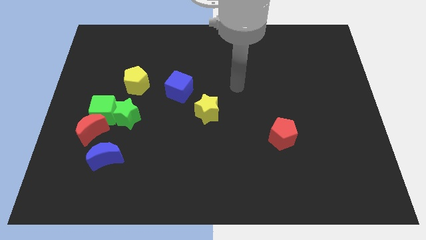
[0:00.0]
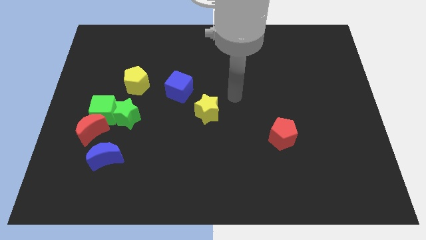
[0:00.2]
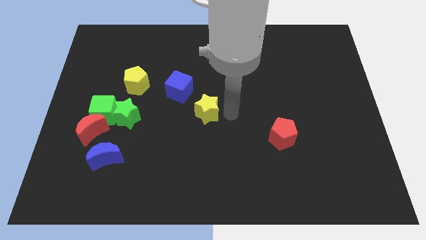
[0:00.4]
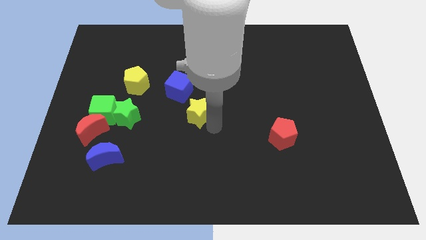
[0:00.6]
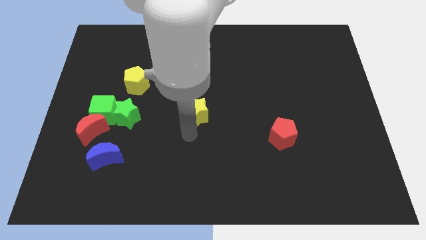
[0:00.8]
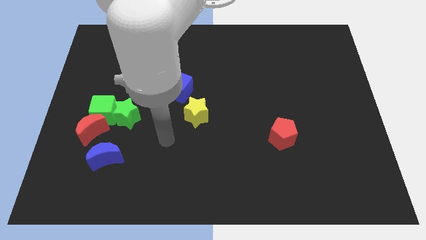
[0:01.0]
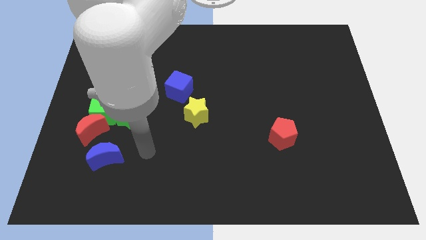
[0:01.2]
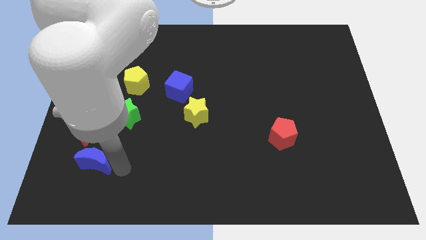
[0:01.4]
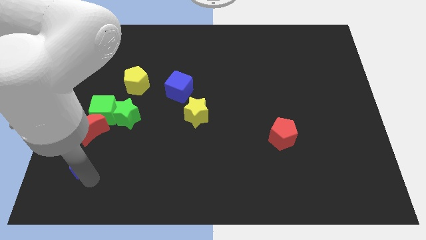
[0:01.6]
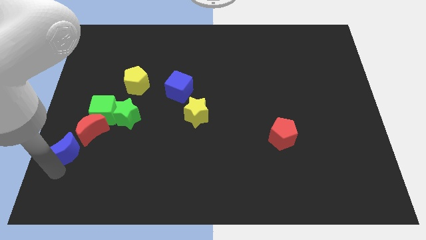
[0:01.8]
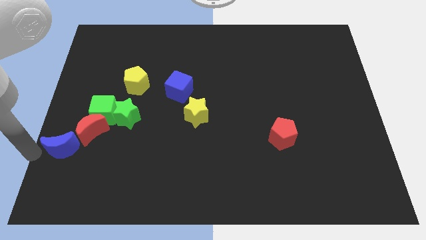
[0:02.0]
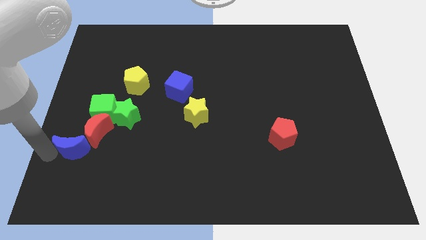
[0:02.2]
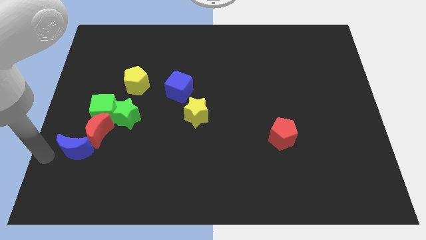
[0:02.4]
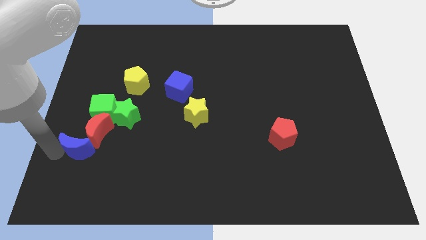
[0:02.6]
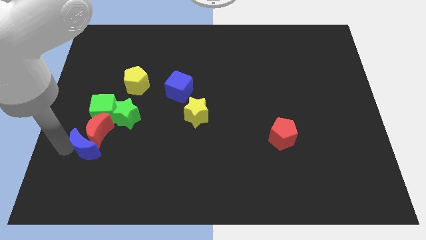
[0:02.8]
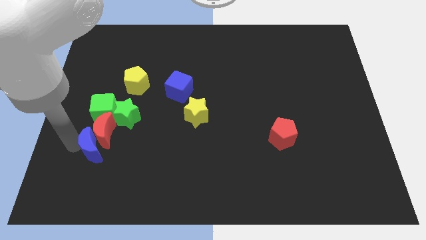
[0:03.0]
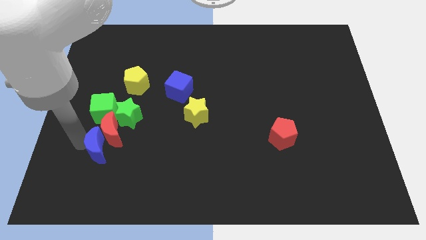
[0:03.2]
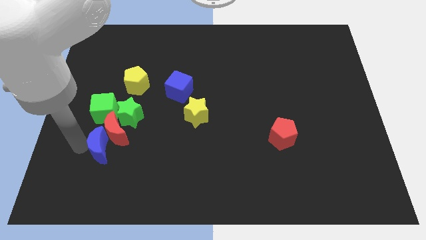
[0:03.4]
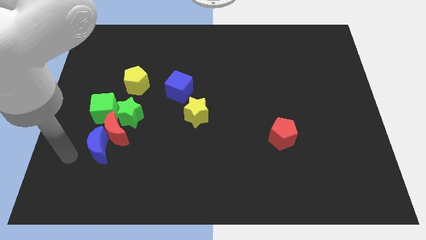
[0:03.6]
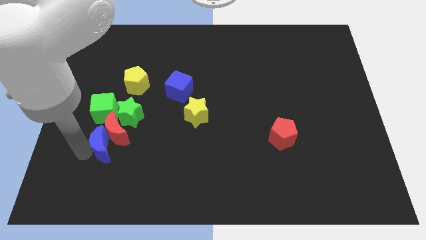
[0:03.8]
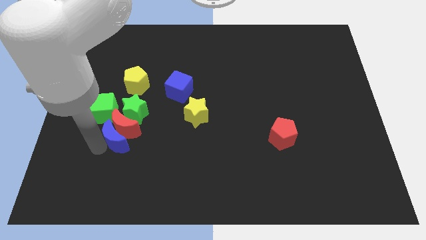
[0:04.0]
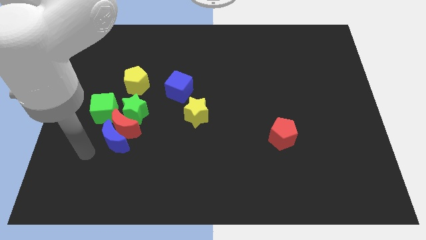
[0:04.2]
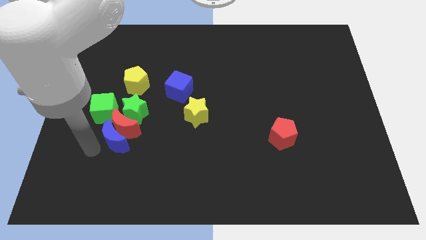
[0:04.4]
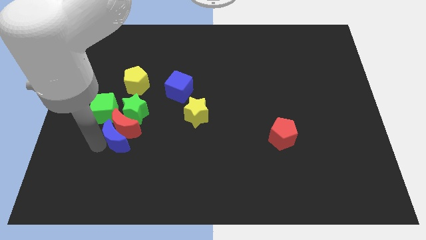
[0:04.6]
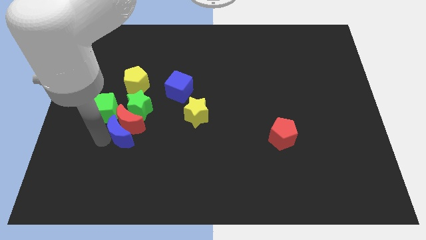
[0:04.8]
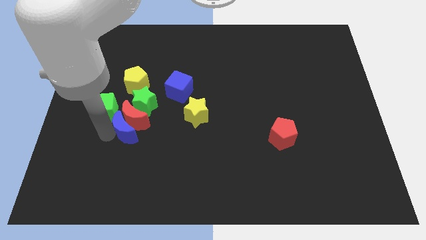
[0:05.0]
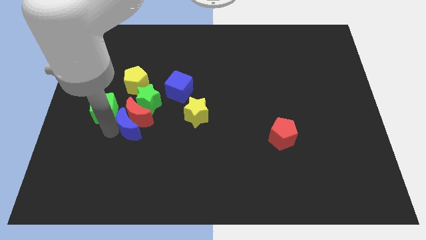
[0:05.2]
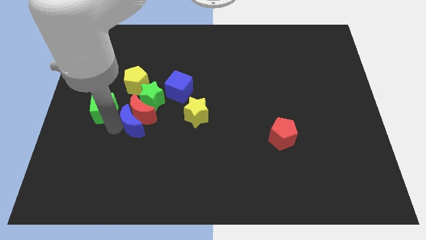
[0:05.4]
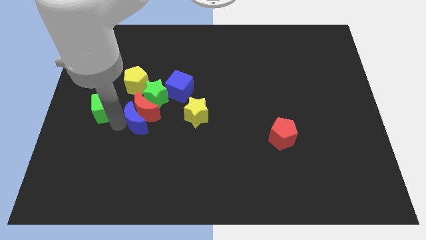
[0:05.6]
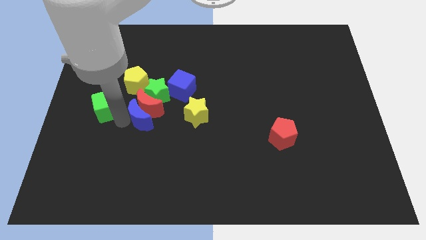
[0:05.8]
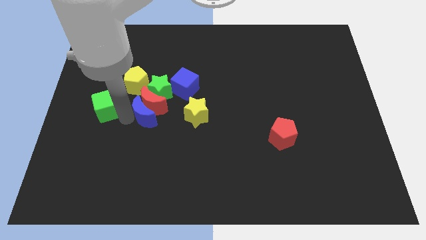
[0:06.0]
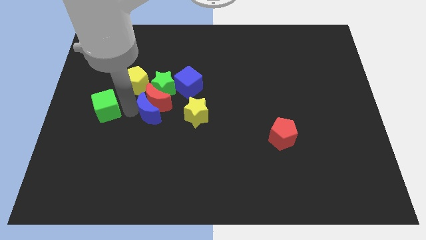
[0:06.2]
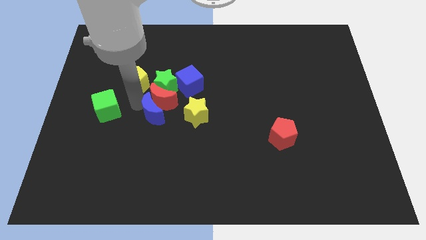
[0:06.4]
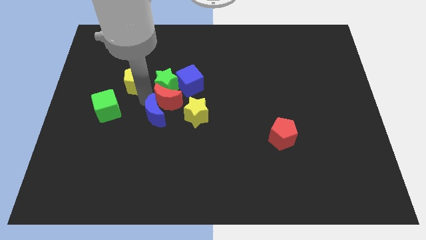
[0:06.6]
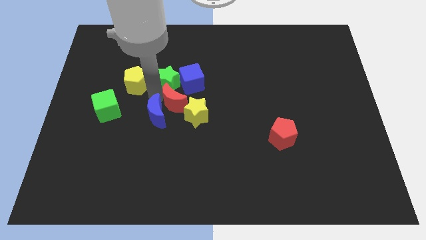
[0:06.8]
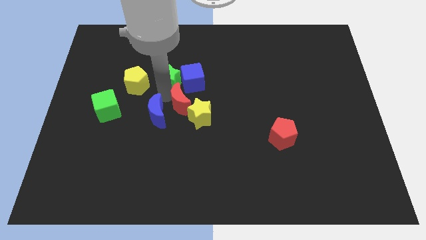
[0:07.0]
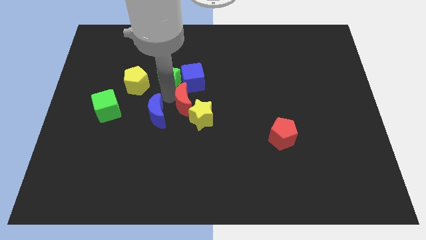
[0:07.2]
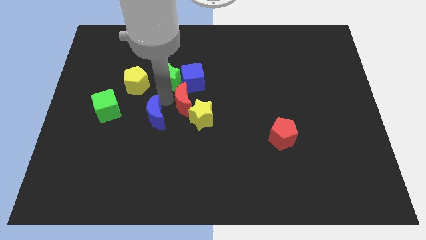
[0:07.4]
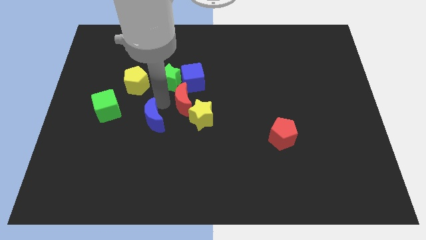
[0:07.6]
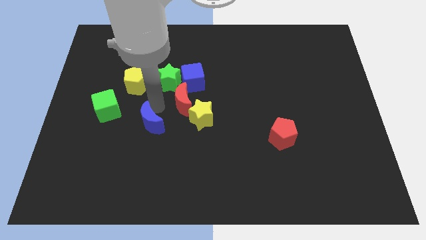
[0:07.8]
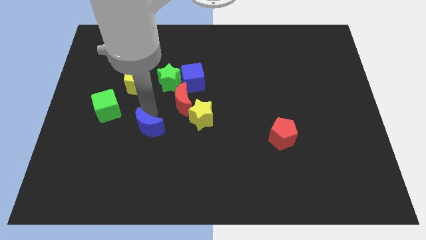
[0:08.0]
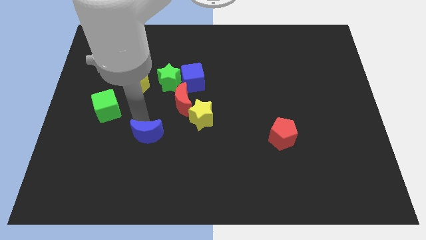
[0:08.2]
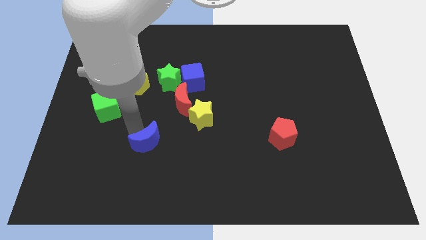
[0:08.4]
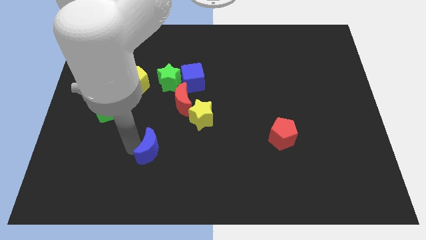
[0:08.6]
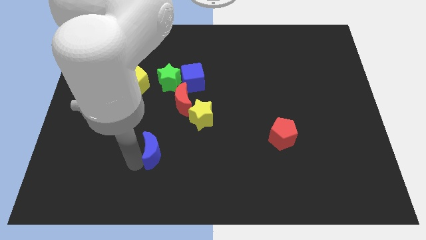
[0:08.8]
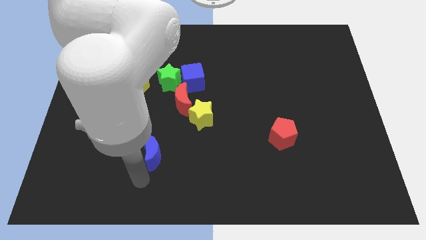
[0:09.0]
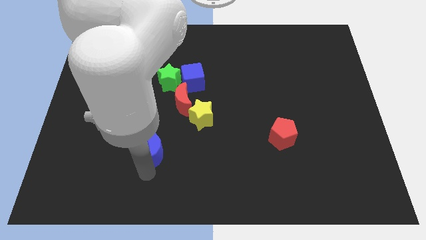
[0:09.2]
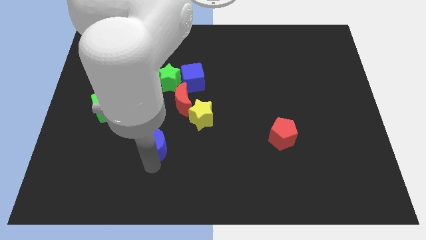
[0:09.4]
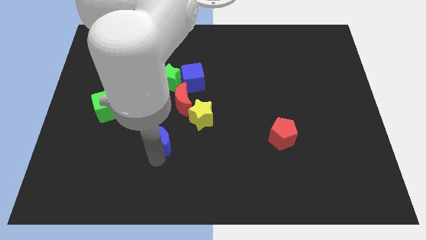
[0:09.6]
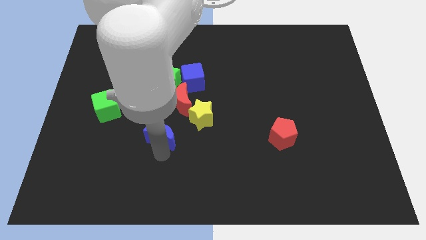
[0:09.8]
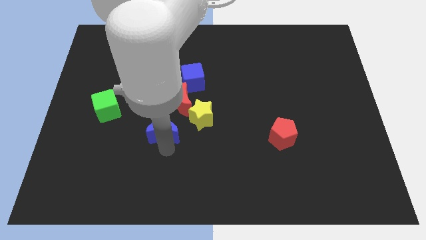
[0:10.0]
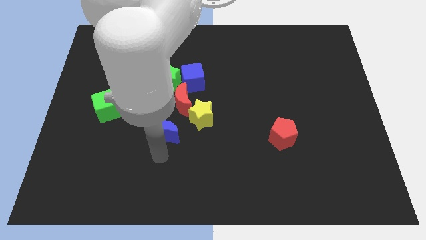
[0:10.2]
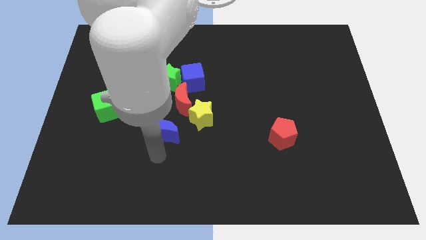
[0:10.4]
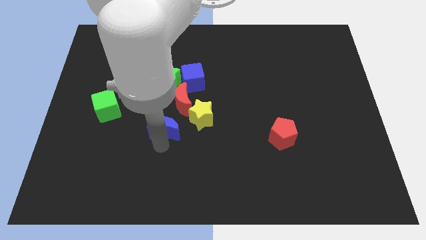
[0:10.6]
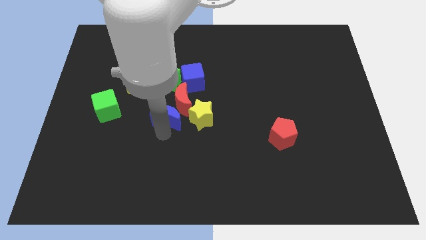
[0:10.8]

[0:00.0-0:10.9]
put the blue moon to the center of the board

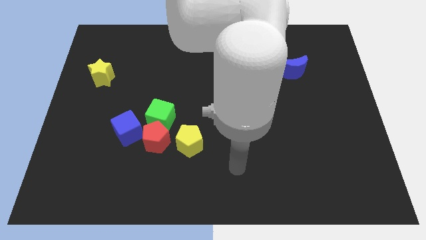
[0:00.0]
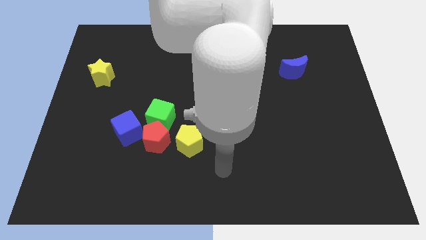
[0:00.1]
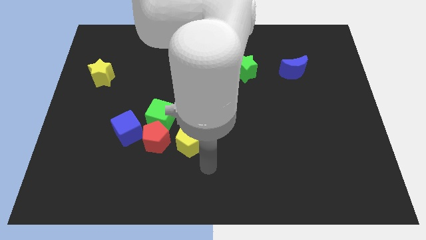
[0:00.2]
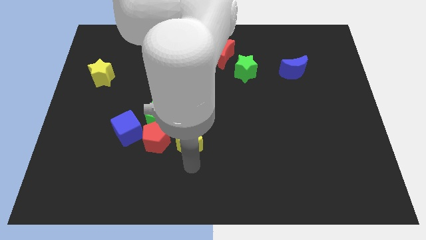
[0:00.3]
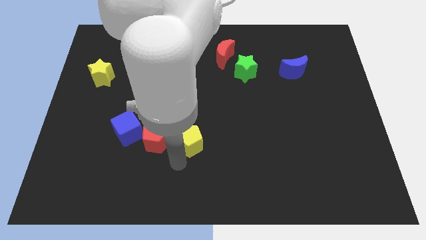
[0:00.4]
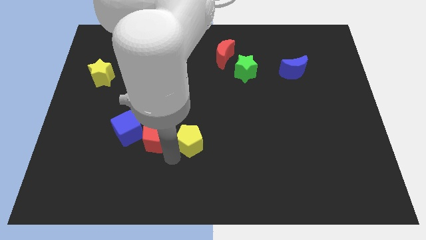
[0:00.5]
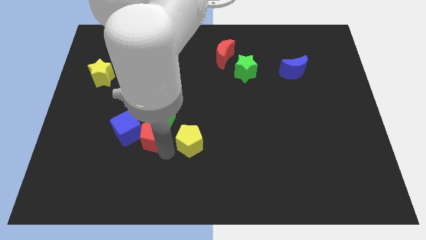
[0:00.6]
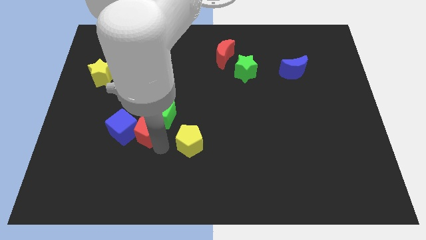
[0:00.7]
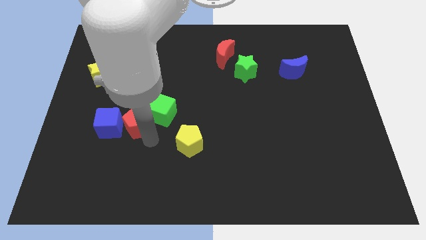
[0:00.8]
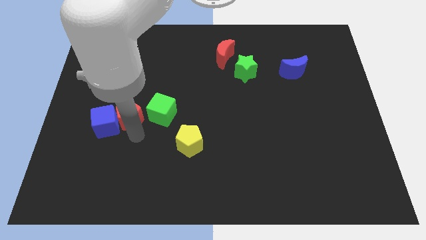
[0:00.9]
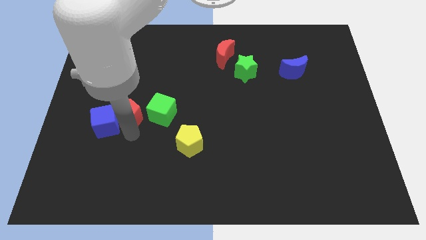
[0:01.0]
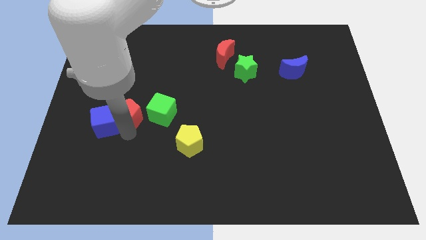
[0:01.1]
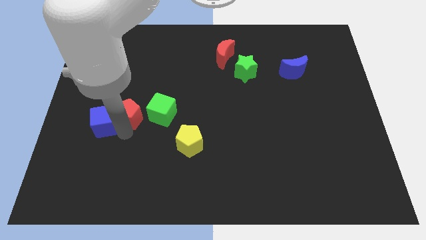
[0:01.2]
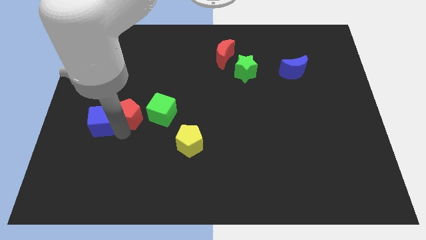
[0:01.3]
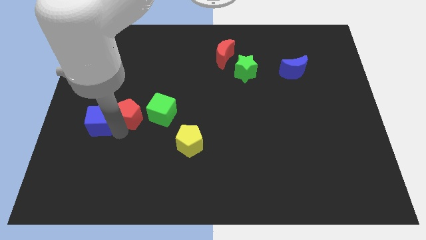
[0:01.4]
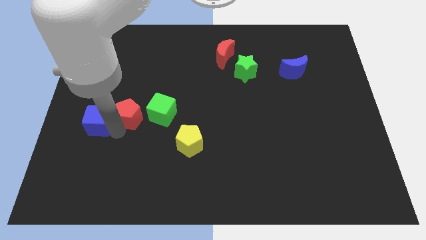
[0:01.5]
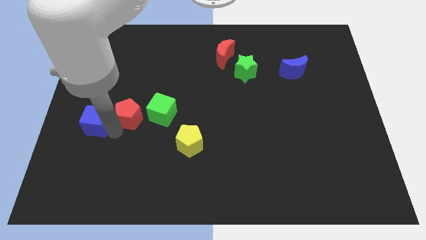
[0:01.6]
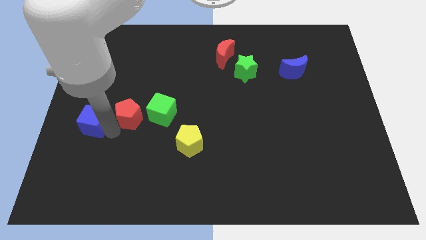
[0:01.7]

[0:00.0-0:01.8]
push the blue cube to the left side of the board

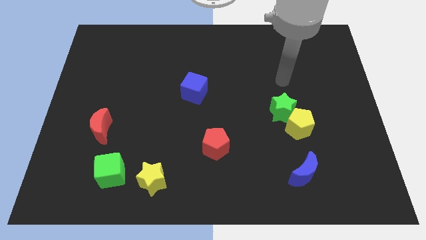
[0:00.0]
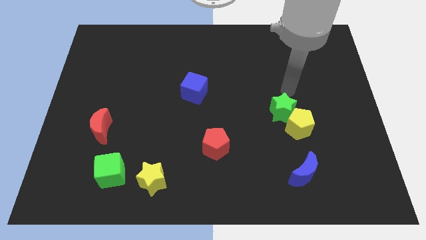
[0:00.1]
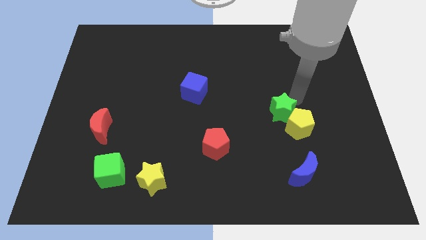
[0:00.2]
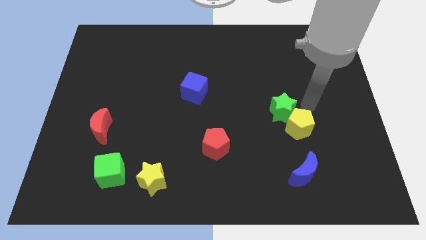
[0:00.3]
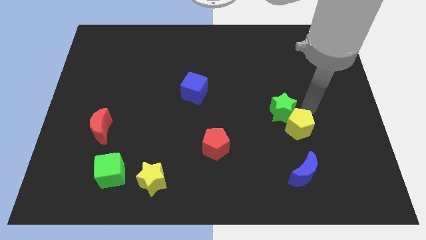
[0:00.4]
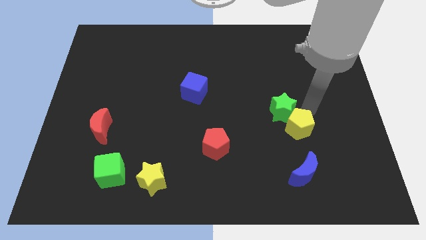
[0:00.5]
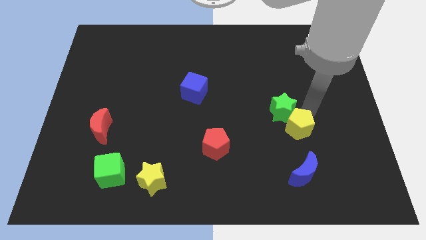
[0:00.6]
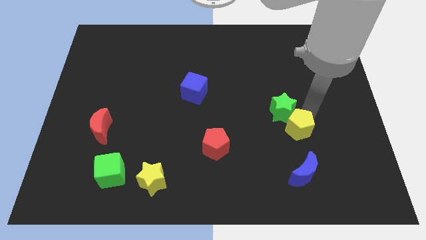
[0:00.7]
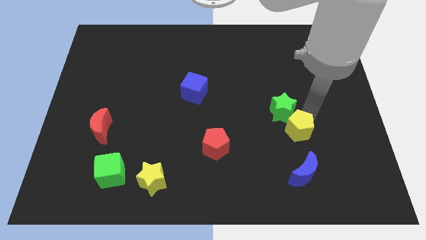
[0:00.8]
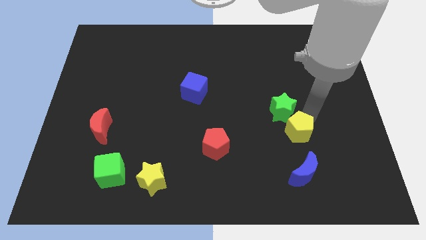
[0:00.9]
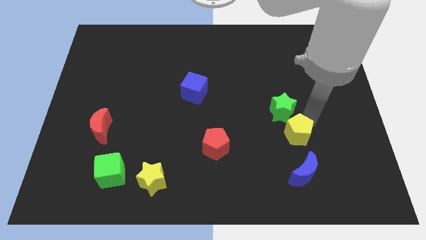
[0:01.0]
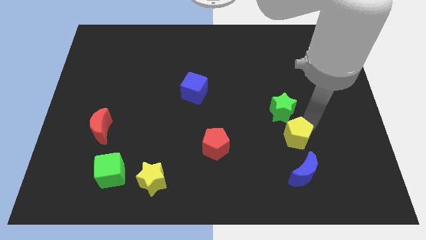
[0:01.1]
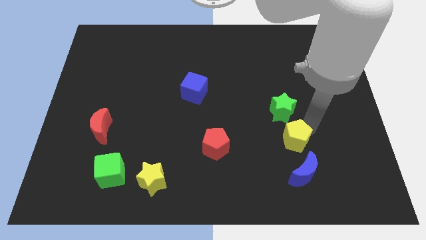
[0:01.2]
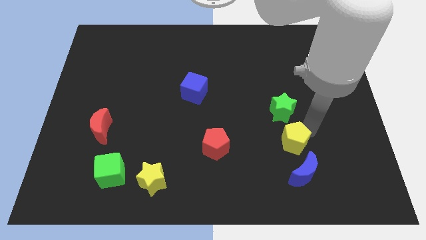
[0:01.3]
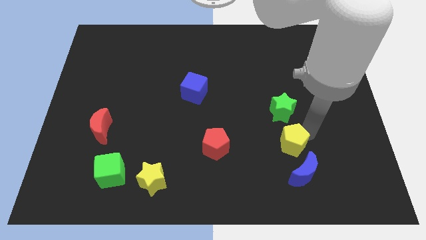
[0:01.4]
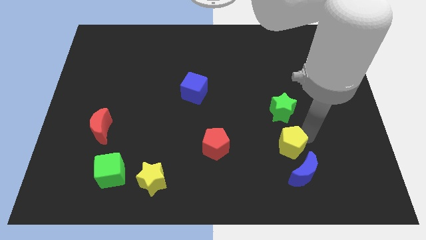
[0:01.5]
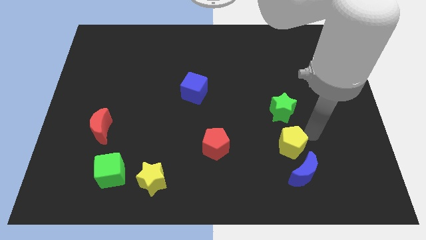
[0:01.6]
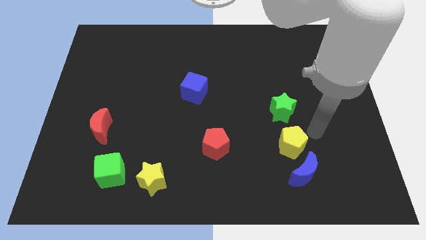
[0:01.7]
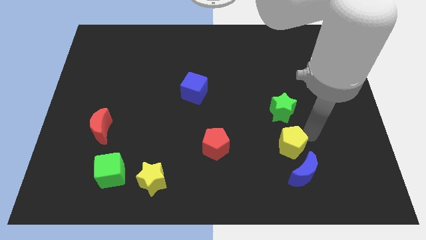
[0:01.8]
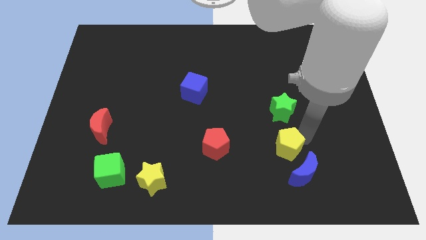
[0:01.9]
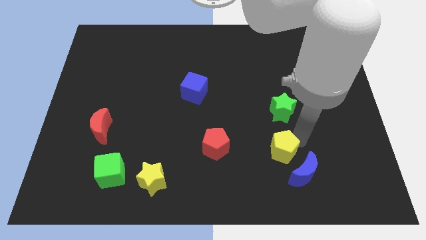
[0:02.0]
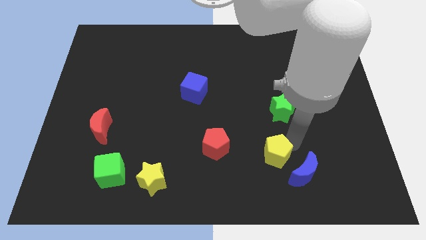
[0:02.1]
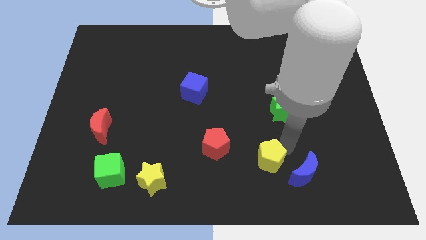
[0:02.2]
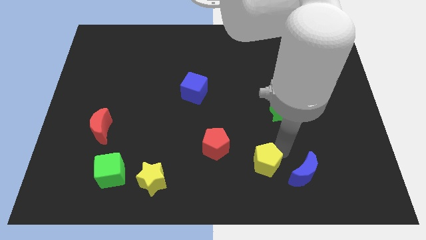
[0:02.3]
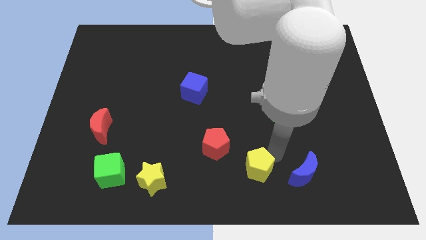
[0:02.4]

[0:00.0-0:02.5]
slide the yellow pentagon to the bottom side
